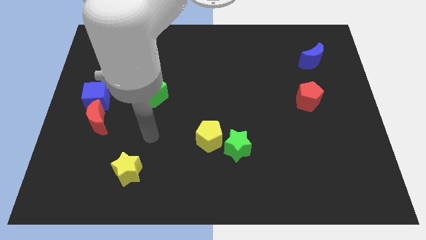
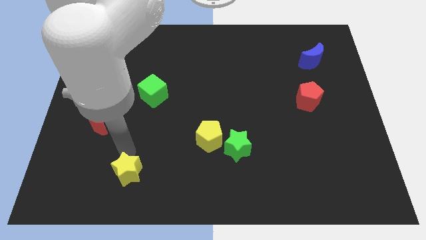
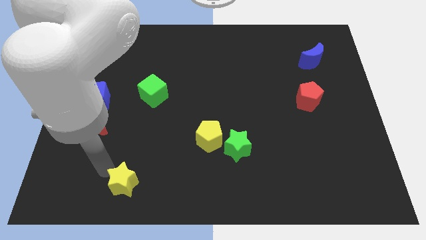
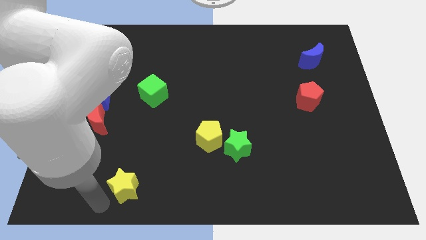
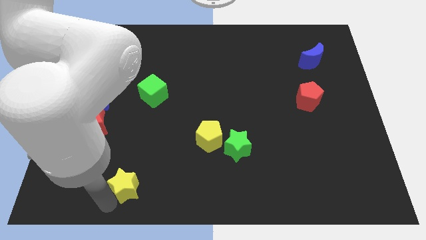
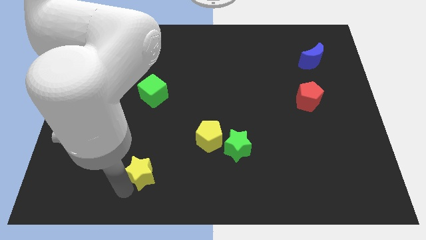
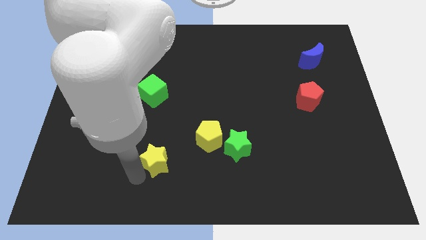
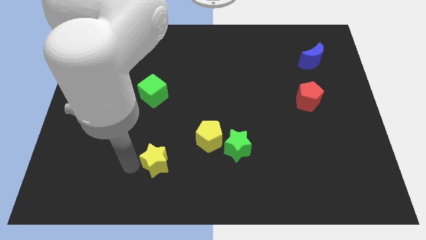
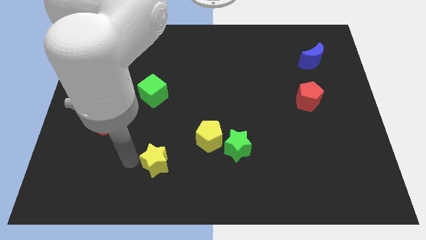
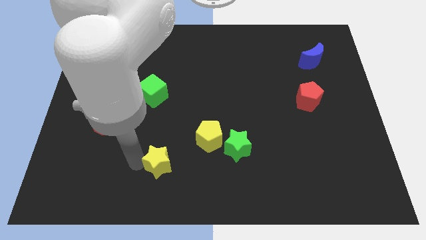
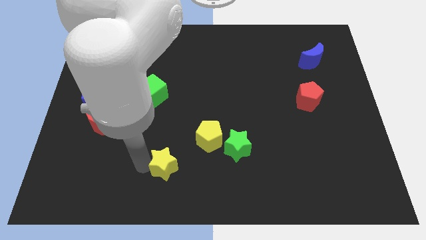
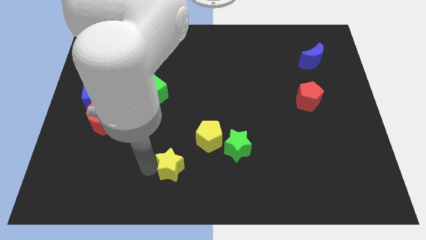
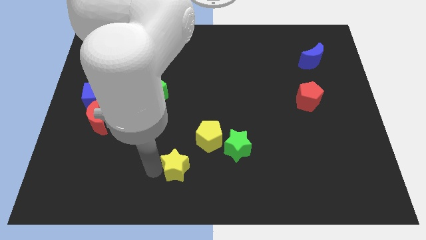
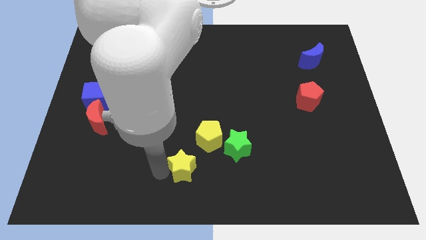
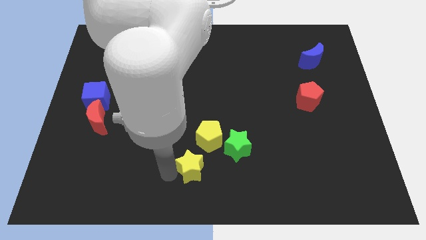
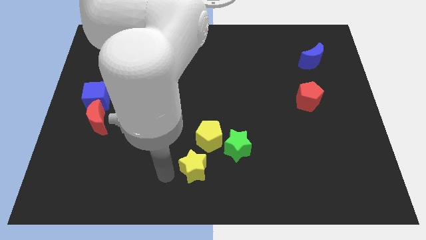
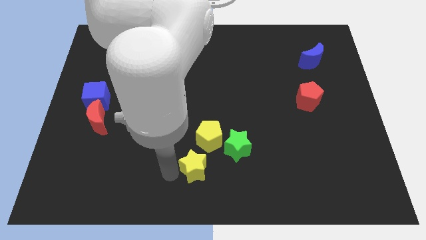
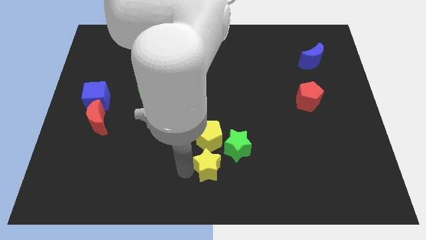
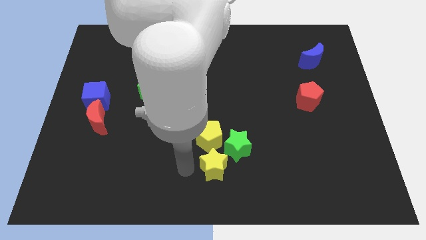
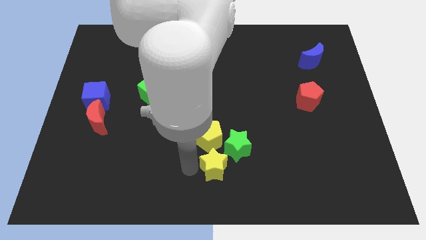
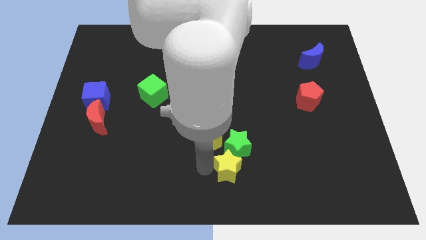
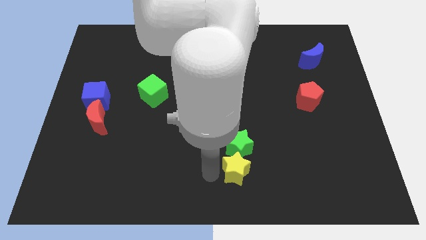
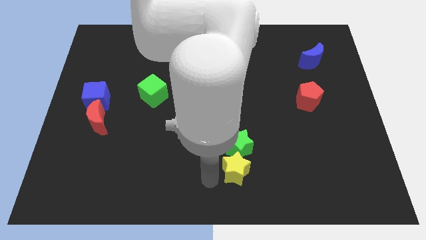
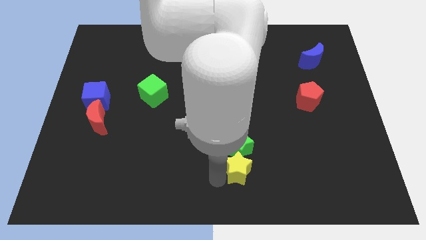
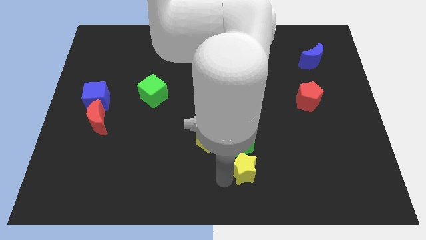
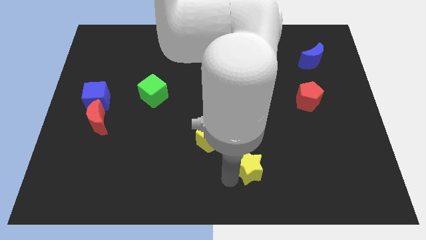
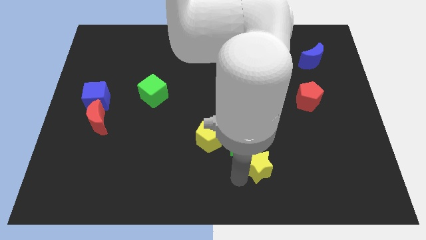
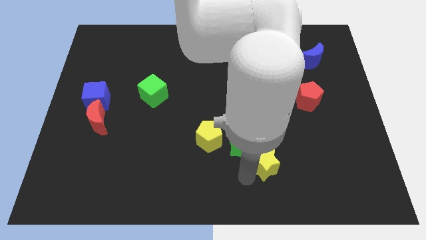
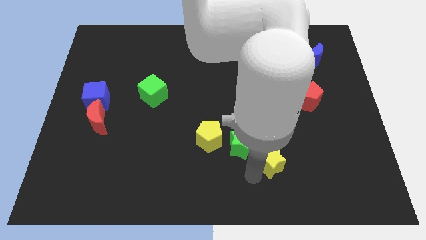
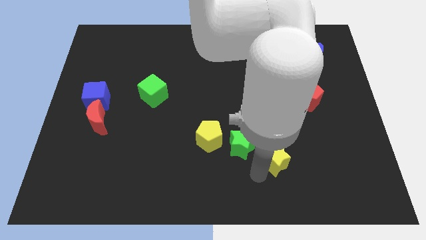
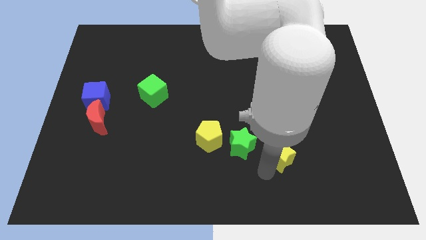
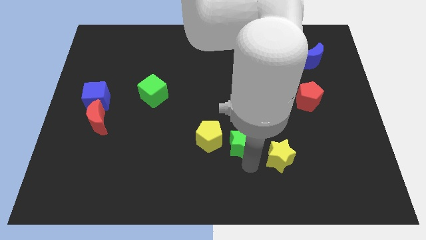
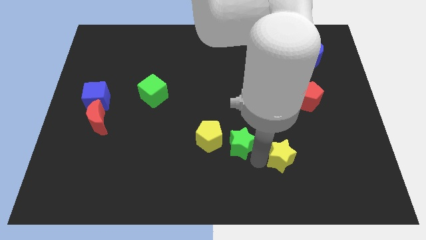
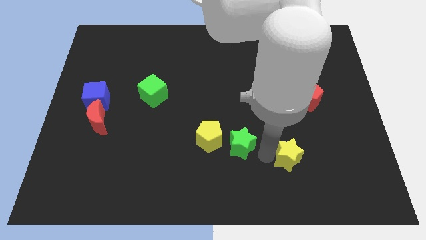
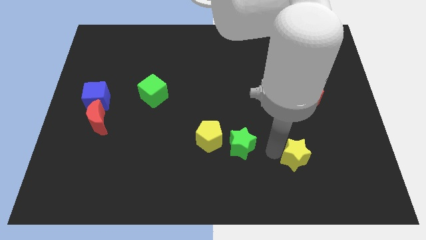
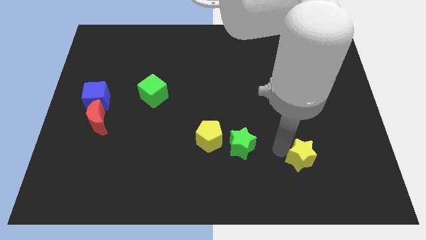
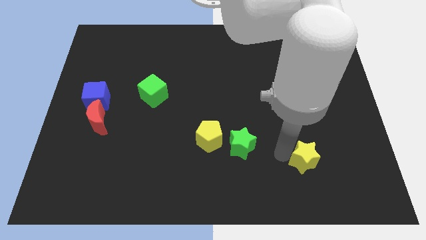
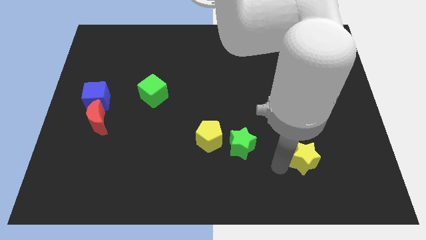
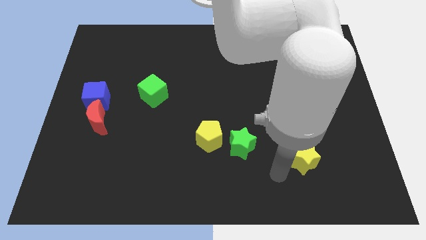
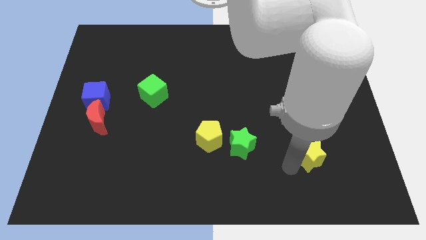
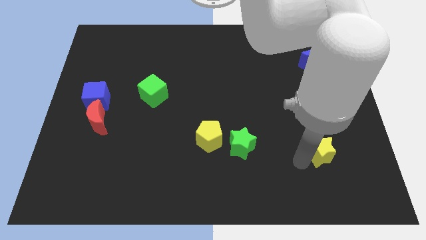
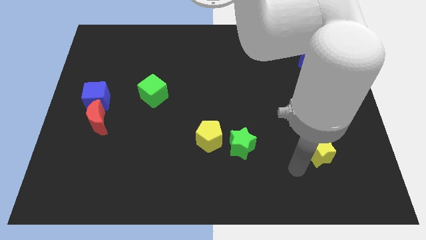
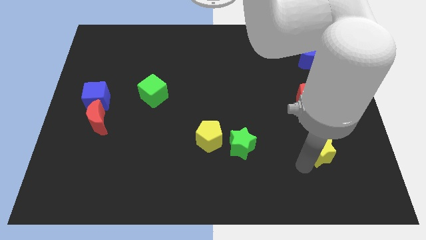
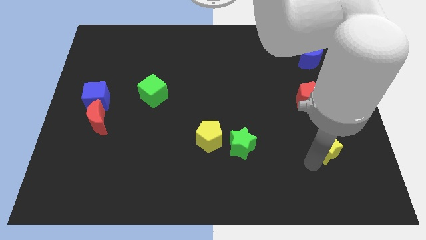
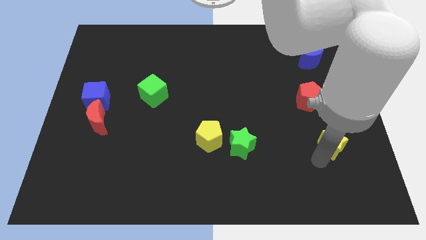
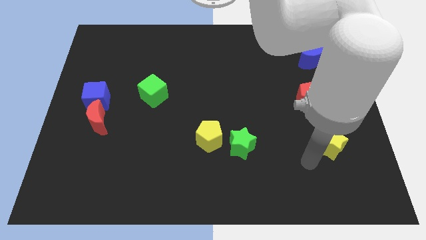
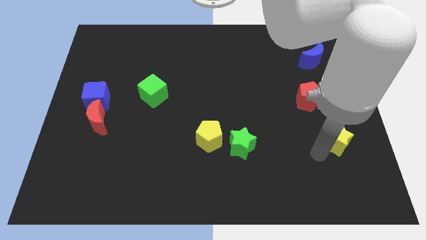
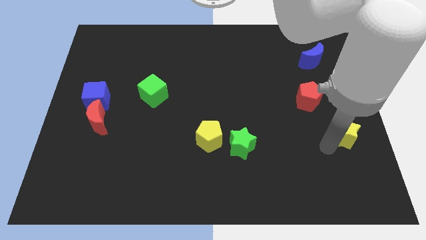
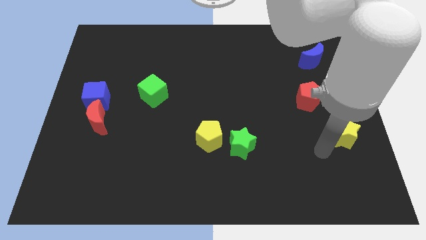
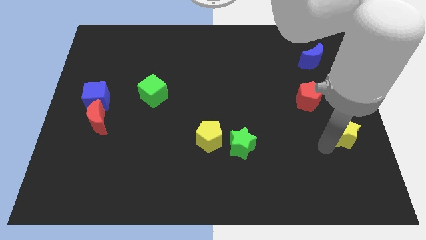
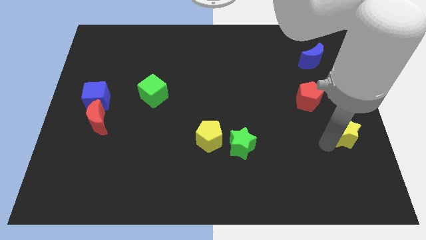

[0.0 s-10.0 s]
push the yellow star to the right side

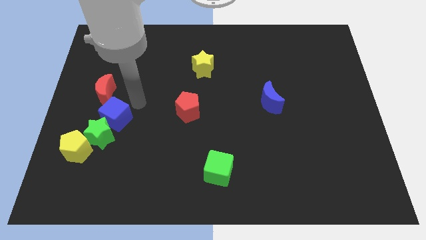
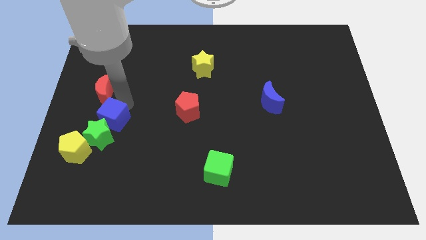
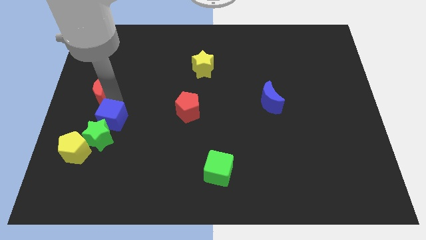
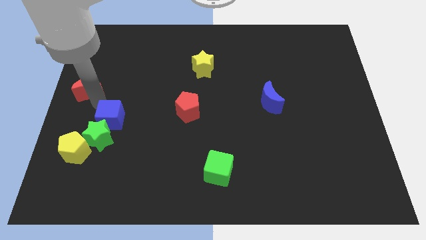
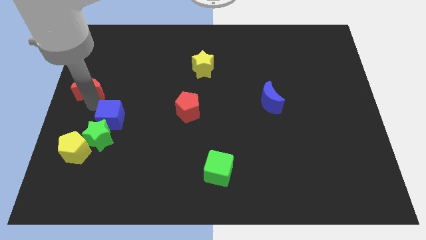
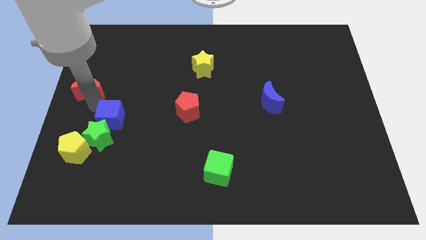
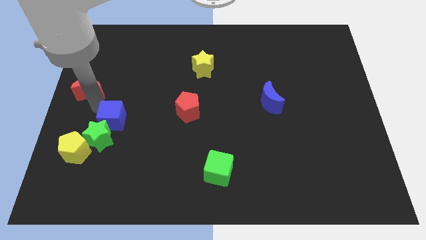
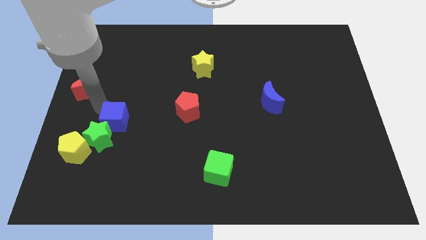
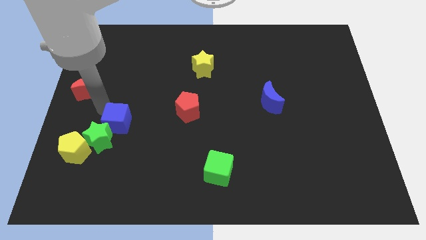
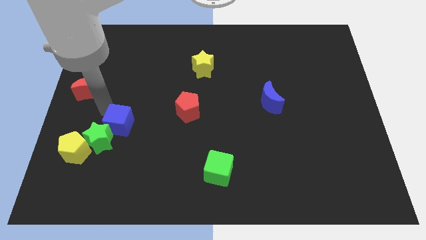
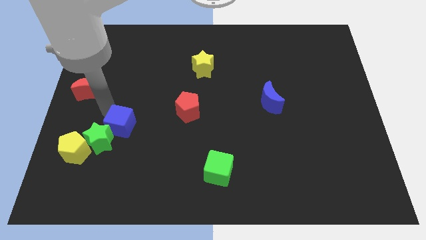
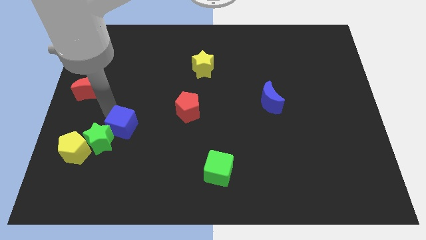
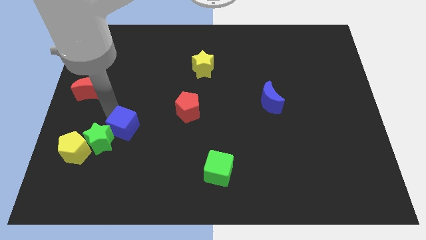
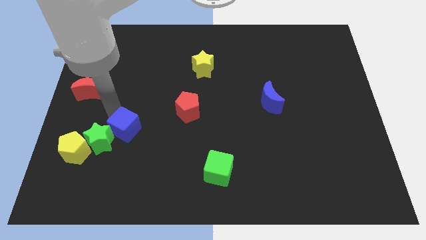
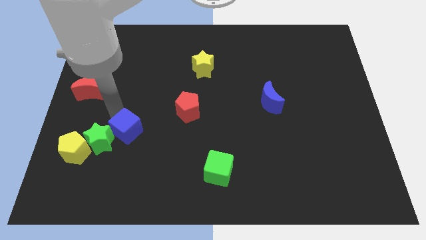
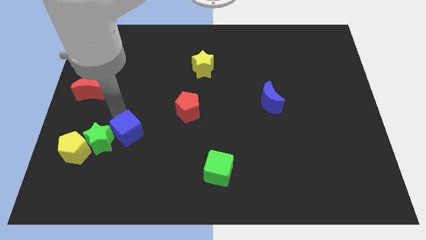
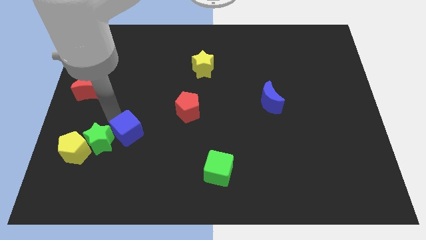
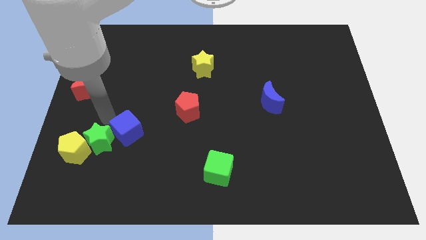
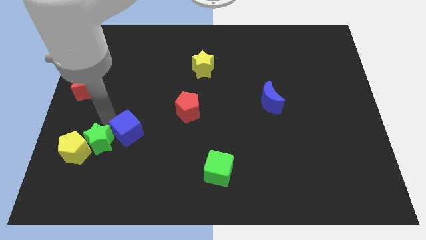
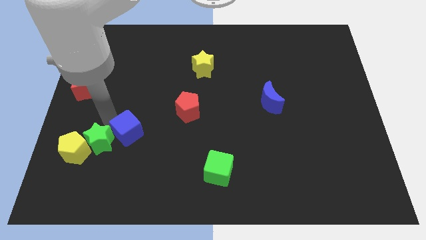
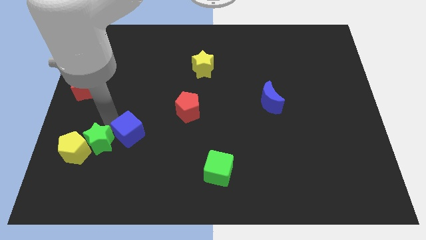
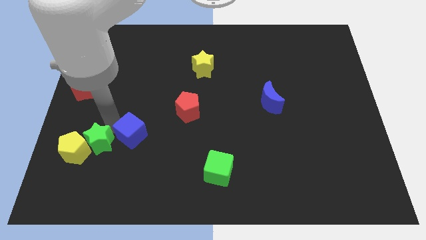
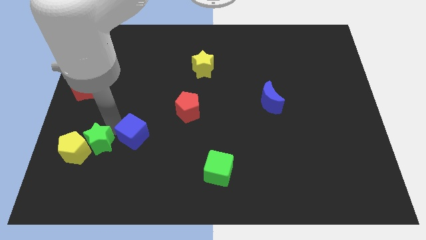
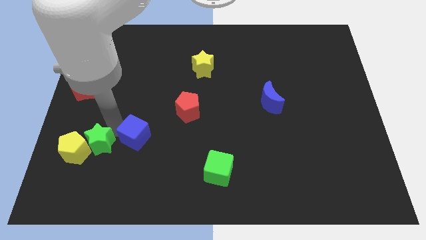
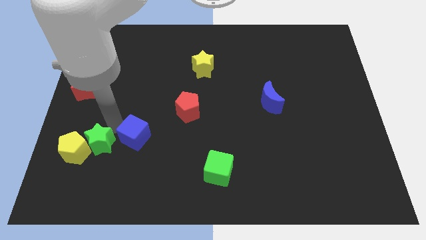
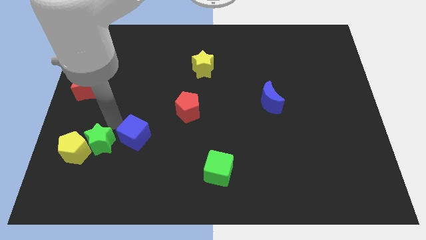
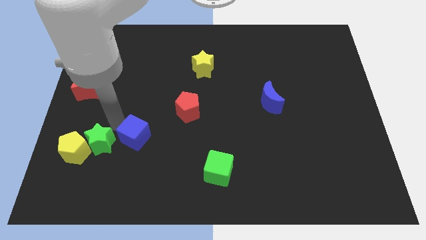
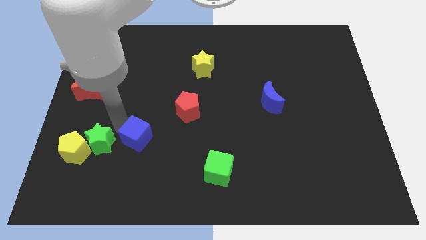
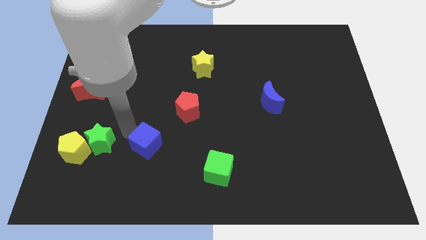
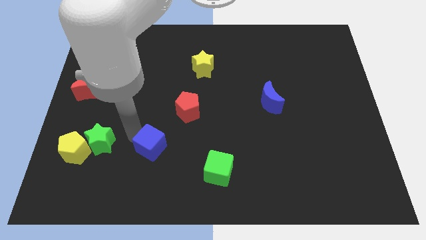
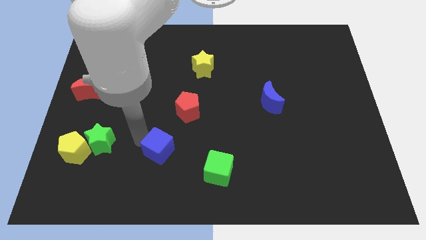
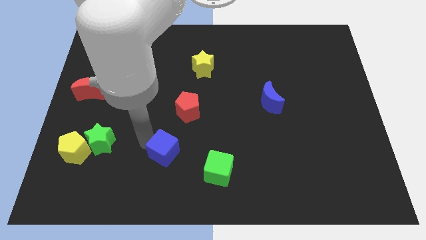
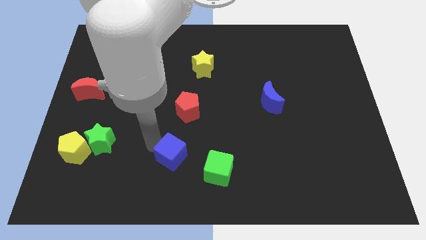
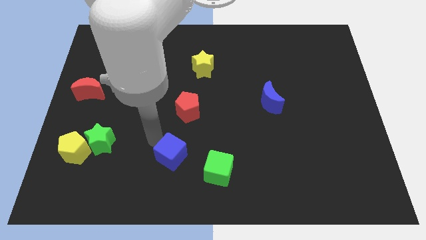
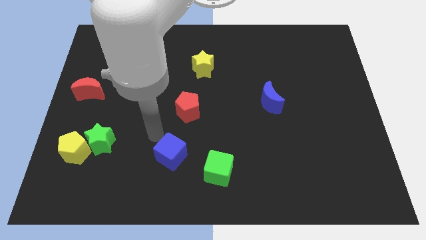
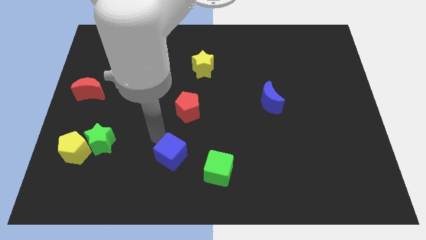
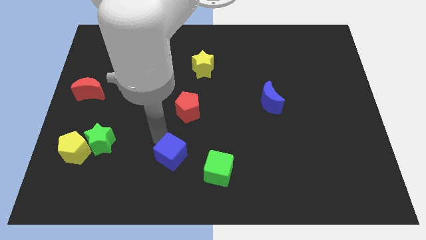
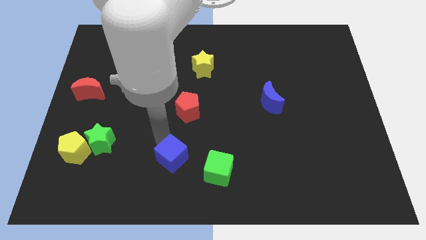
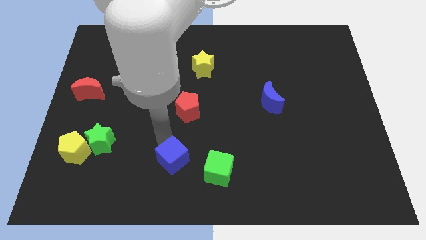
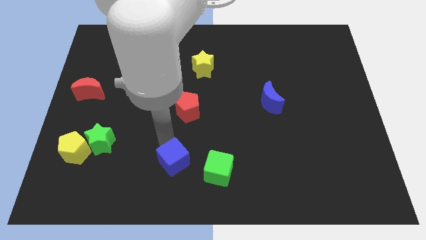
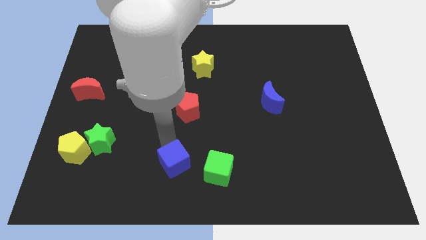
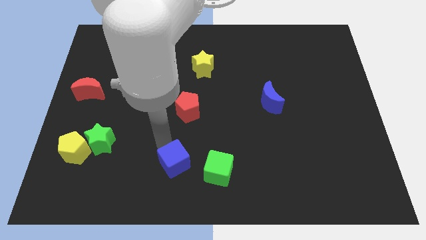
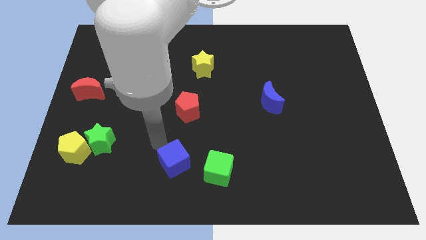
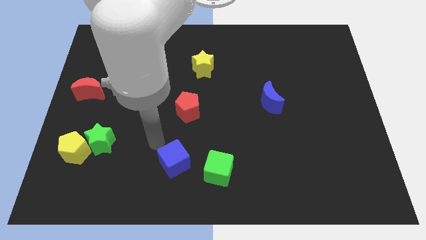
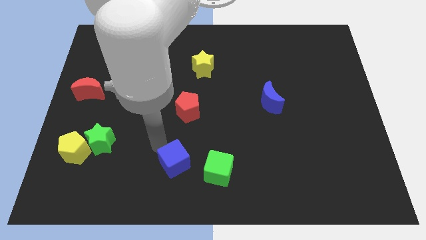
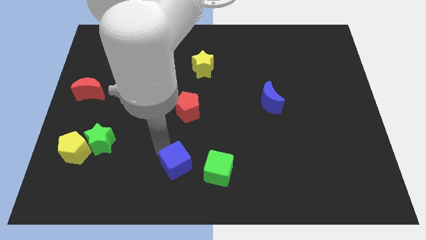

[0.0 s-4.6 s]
put the blue cube to the bottom
